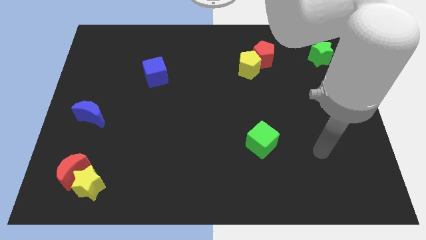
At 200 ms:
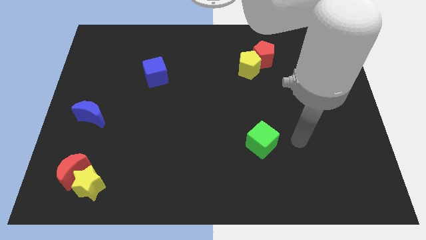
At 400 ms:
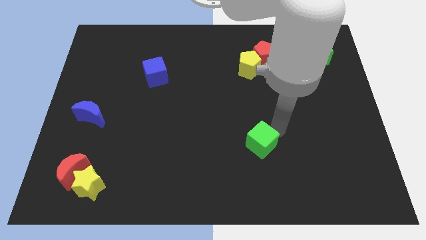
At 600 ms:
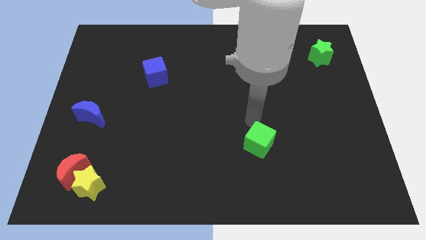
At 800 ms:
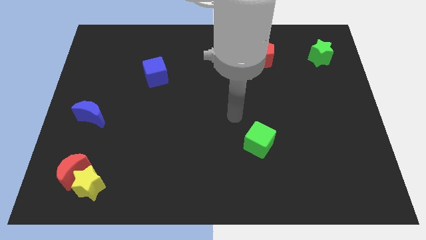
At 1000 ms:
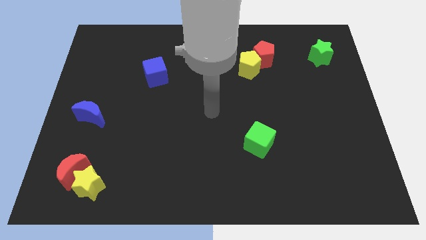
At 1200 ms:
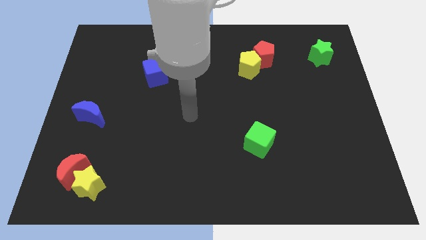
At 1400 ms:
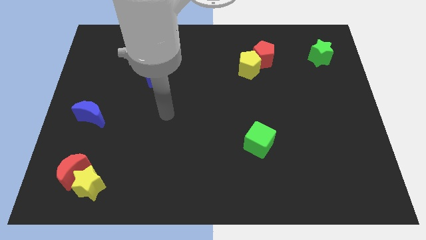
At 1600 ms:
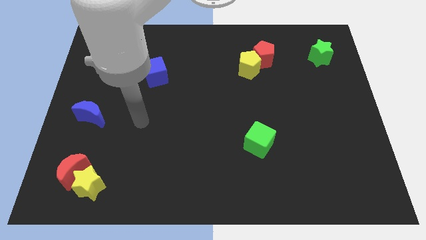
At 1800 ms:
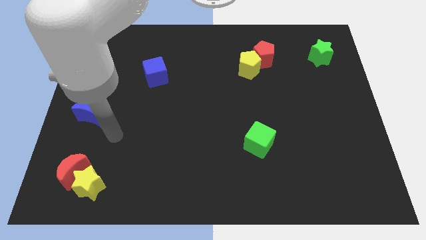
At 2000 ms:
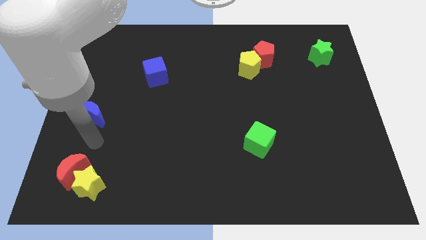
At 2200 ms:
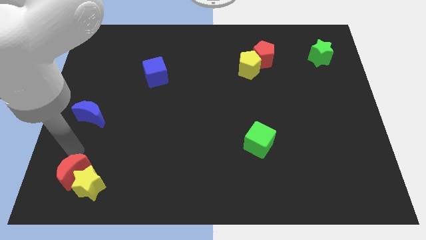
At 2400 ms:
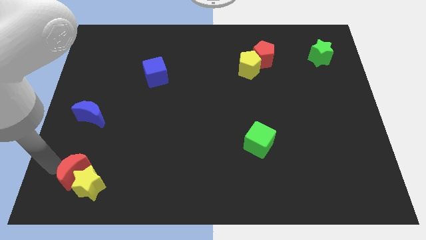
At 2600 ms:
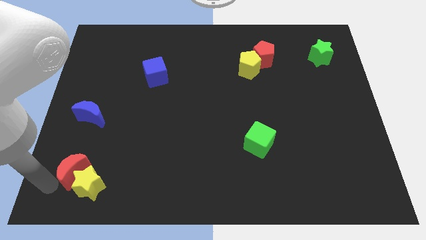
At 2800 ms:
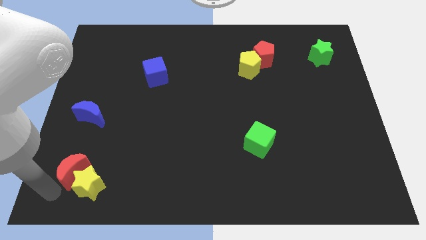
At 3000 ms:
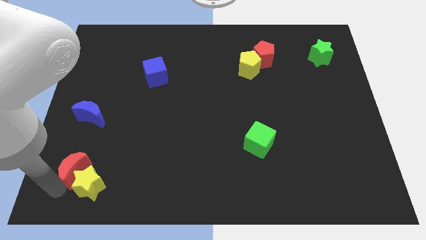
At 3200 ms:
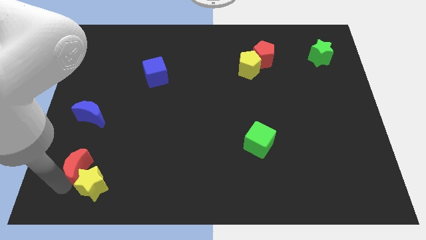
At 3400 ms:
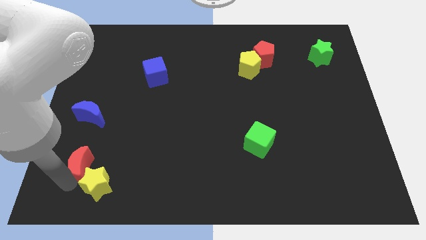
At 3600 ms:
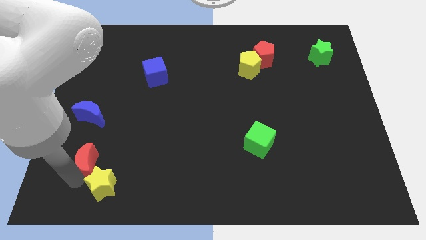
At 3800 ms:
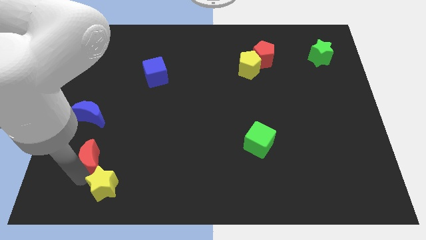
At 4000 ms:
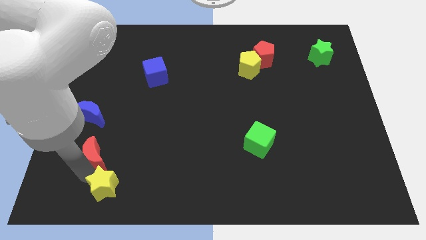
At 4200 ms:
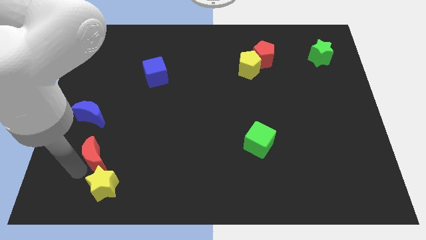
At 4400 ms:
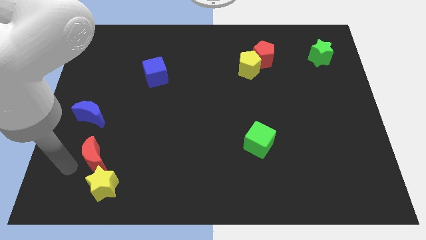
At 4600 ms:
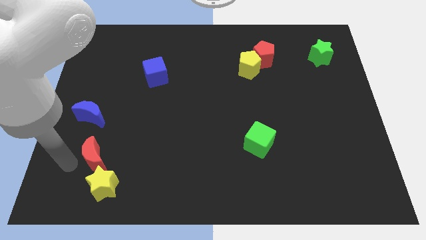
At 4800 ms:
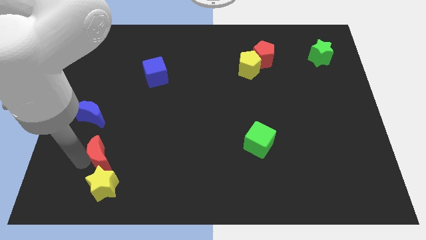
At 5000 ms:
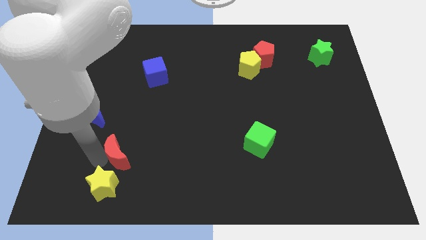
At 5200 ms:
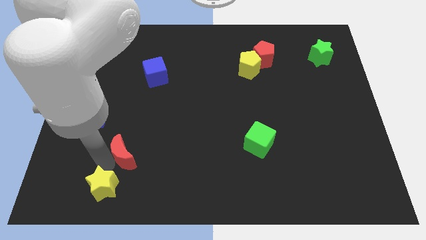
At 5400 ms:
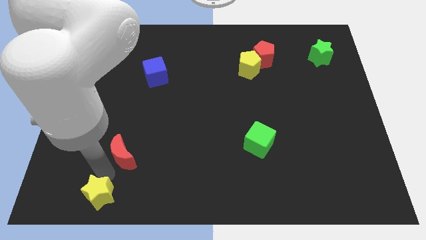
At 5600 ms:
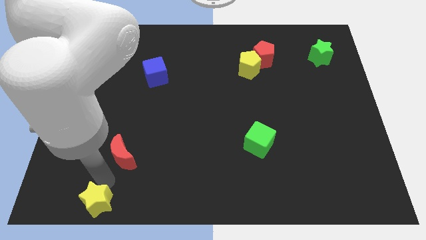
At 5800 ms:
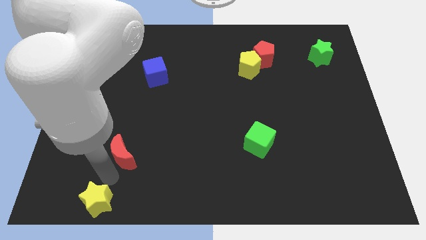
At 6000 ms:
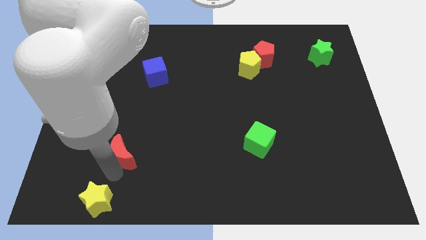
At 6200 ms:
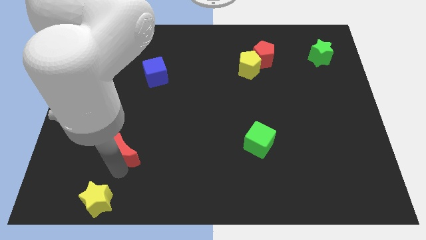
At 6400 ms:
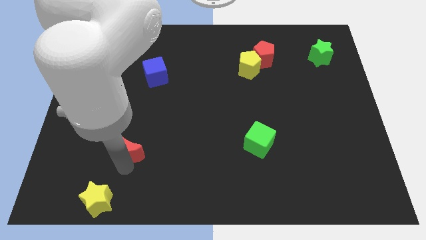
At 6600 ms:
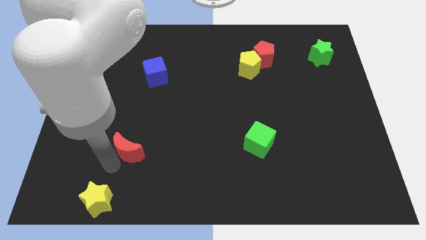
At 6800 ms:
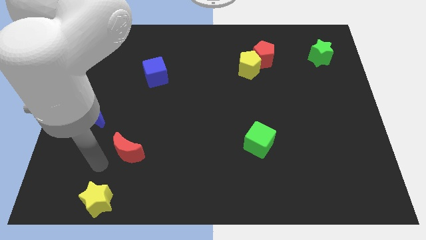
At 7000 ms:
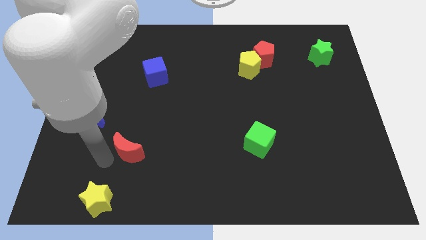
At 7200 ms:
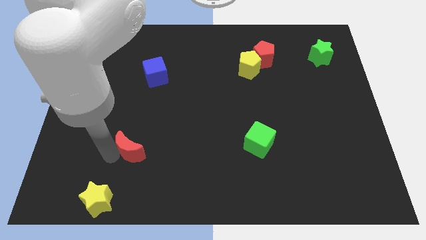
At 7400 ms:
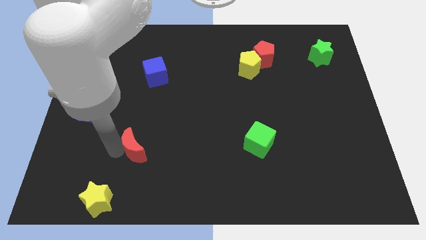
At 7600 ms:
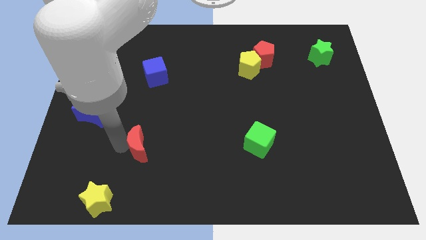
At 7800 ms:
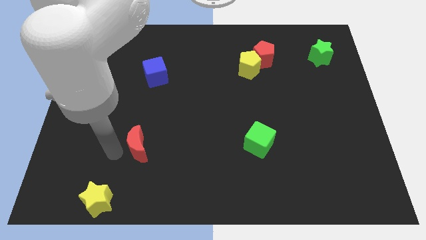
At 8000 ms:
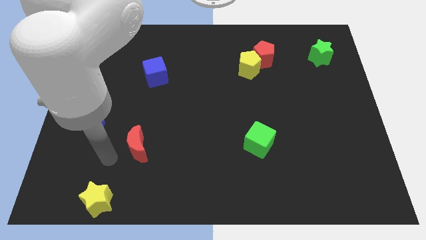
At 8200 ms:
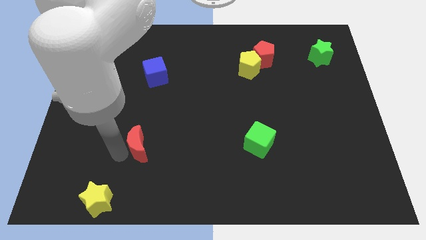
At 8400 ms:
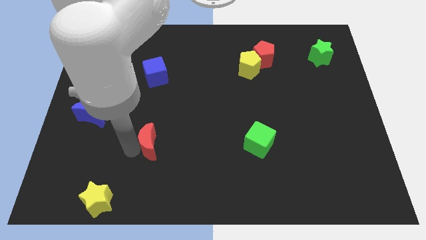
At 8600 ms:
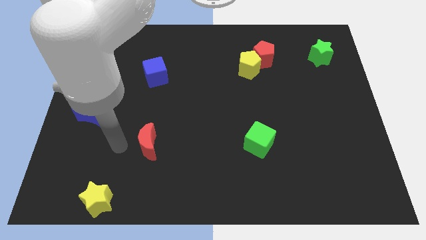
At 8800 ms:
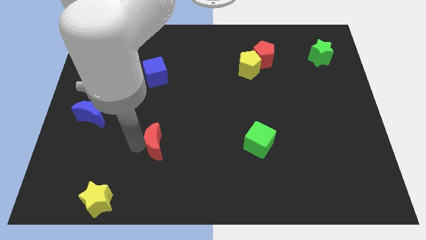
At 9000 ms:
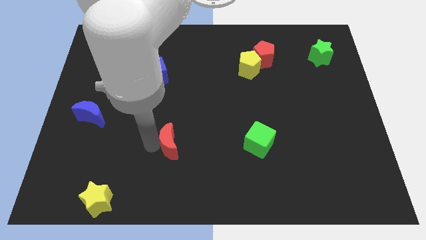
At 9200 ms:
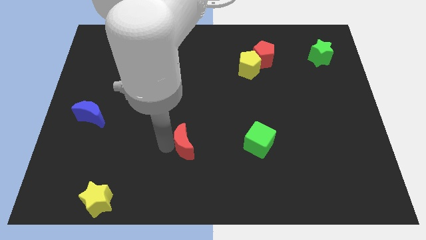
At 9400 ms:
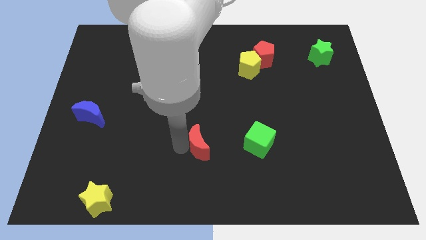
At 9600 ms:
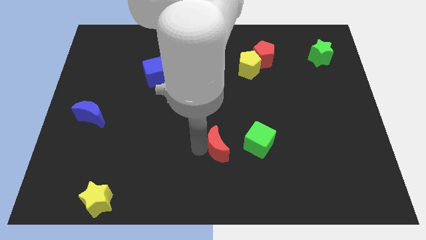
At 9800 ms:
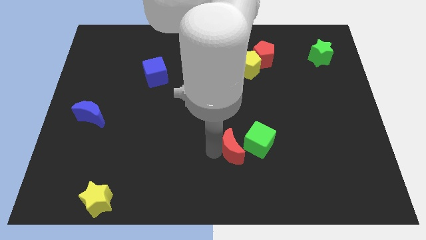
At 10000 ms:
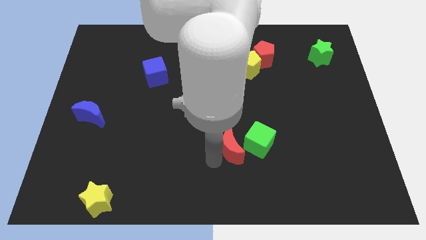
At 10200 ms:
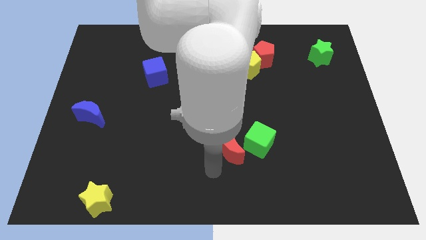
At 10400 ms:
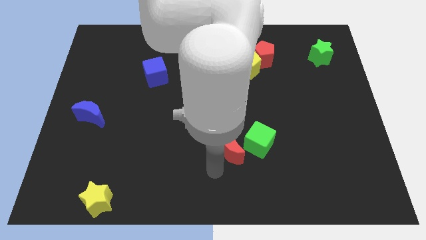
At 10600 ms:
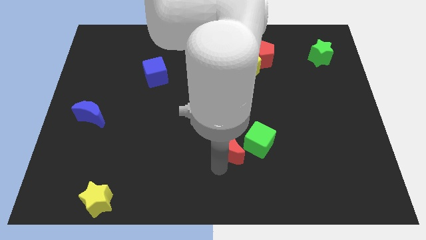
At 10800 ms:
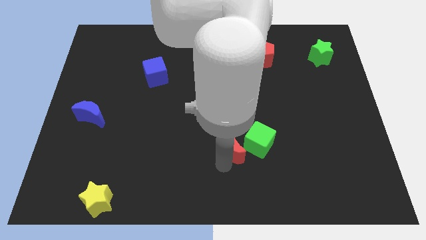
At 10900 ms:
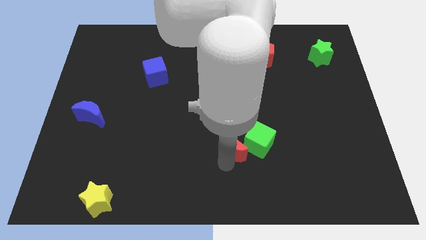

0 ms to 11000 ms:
move the red moon to the green cube

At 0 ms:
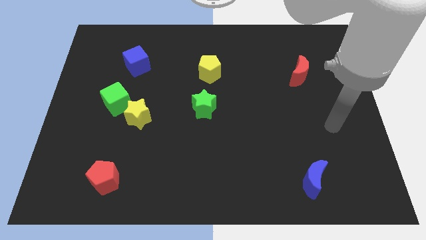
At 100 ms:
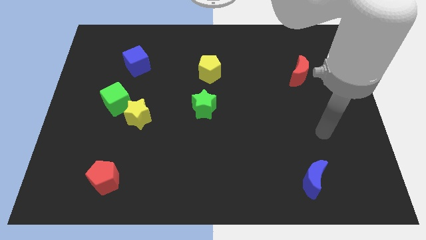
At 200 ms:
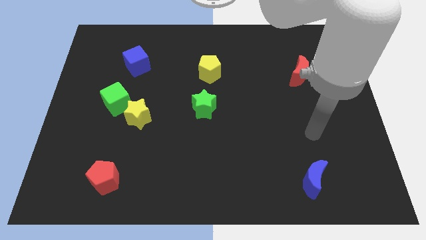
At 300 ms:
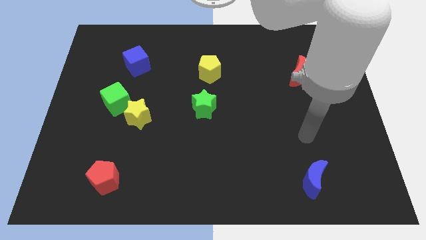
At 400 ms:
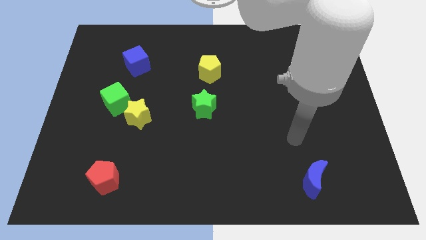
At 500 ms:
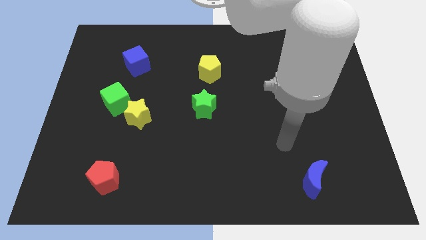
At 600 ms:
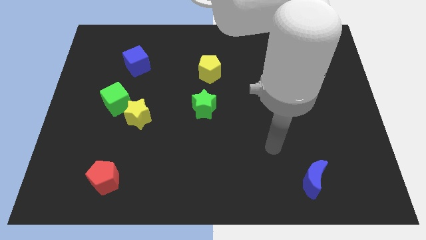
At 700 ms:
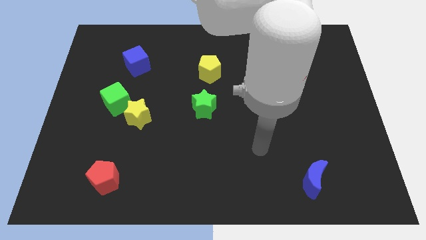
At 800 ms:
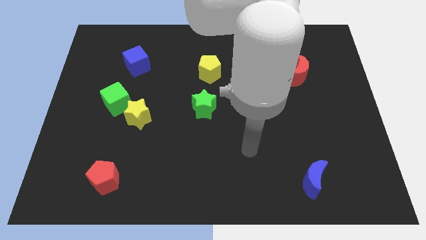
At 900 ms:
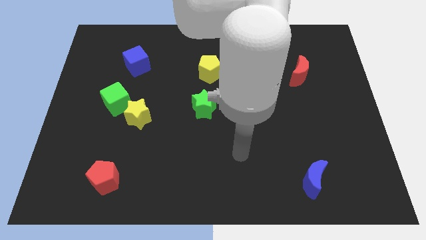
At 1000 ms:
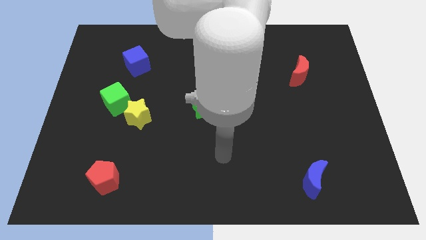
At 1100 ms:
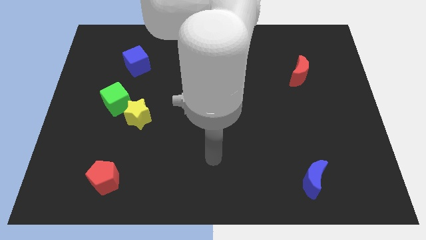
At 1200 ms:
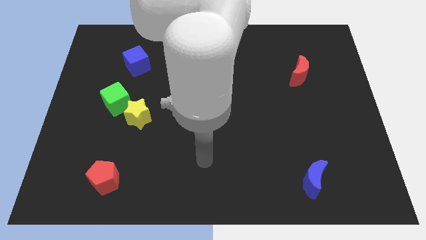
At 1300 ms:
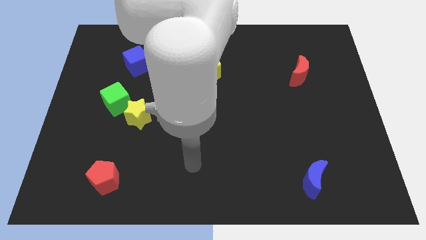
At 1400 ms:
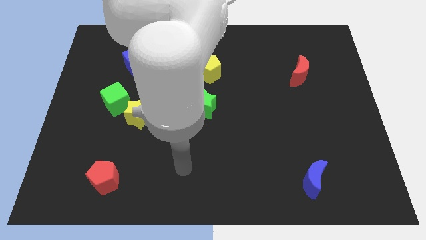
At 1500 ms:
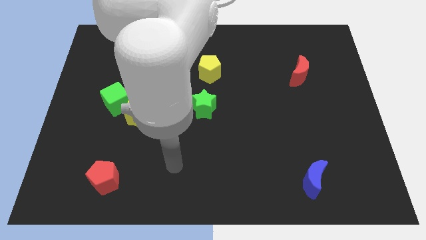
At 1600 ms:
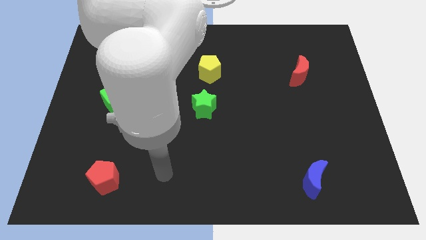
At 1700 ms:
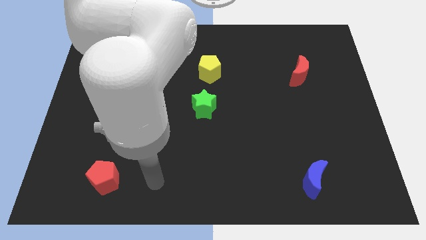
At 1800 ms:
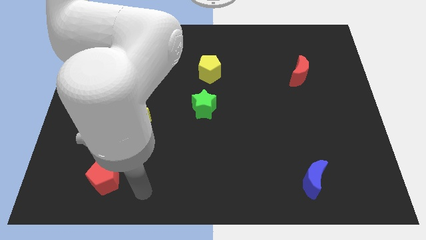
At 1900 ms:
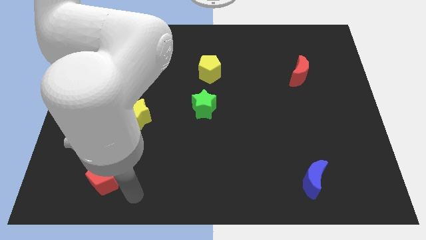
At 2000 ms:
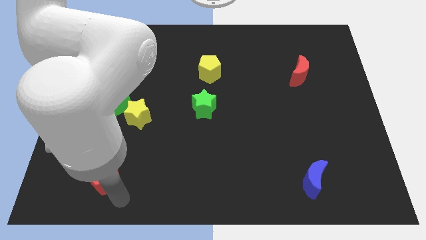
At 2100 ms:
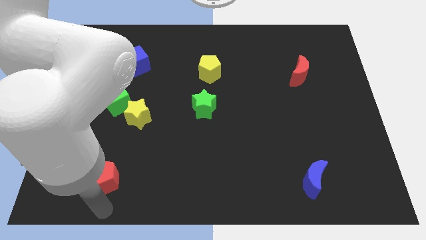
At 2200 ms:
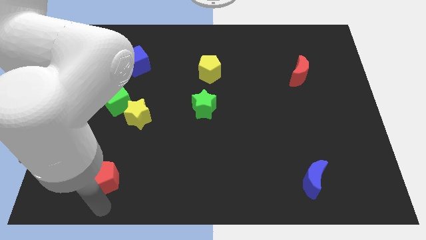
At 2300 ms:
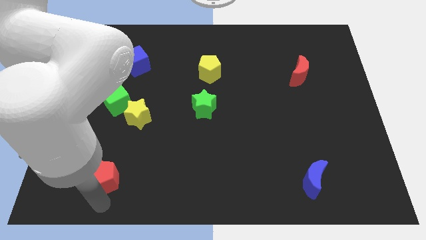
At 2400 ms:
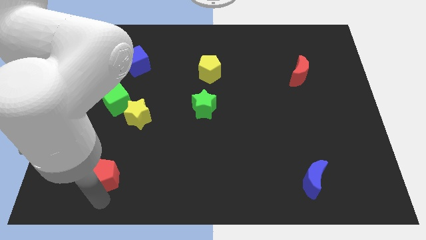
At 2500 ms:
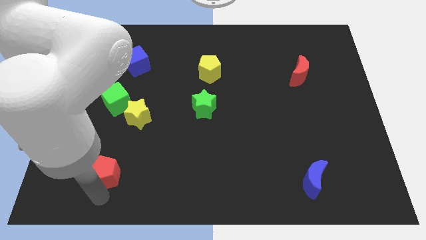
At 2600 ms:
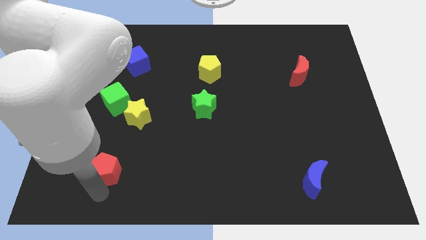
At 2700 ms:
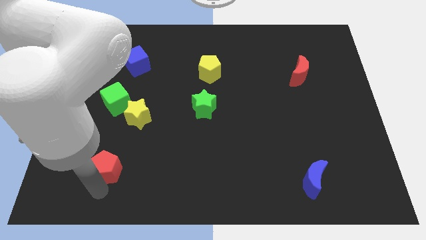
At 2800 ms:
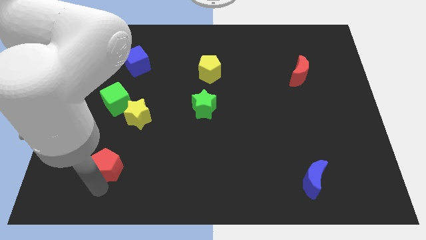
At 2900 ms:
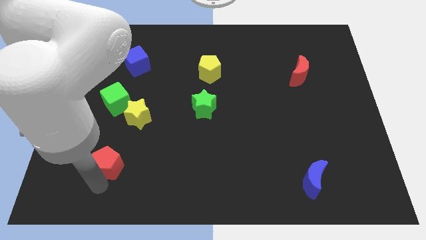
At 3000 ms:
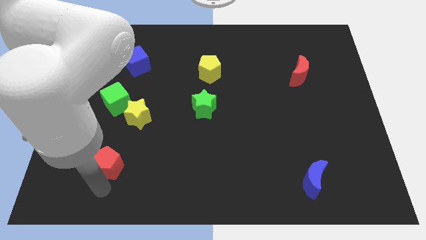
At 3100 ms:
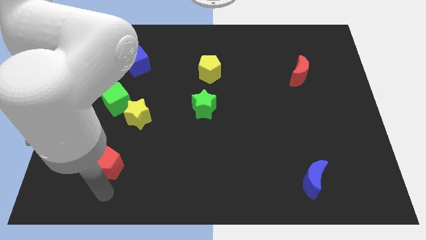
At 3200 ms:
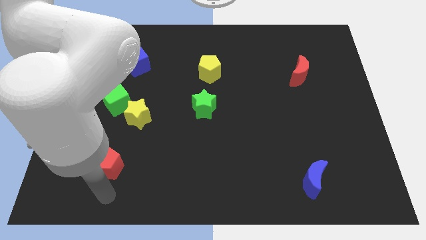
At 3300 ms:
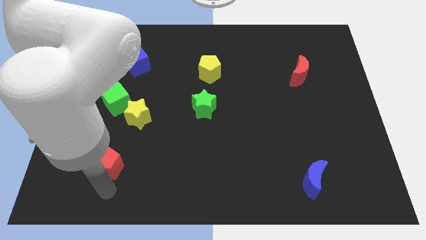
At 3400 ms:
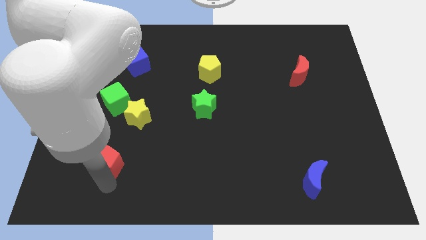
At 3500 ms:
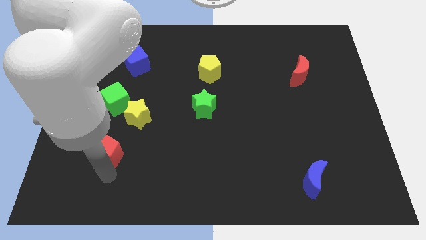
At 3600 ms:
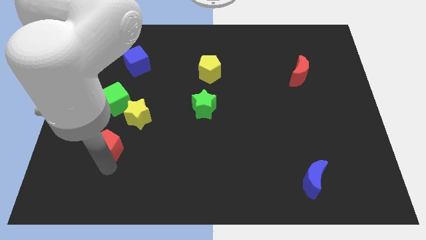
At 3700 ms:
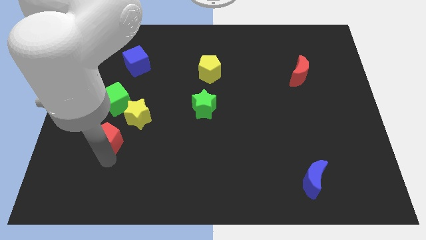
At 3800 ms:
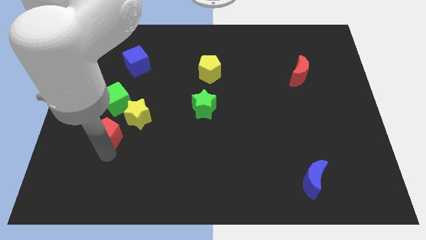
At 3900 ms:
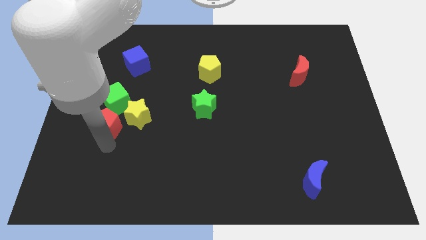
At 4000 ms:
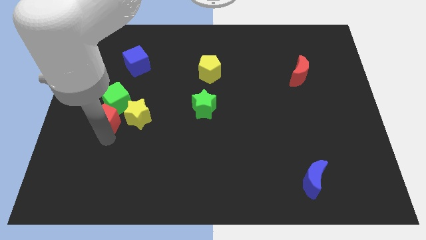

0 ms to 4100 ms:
push the red pentagon towards the green cube
